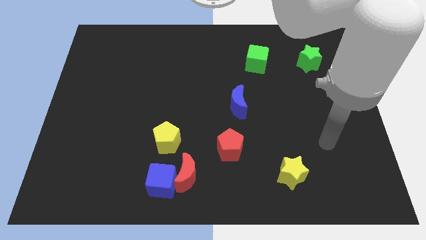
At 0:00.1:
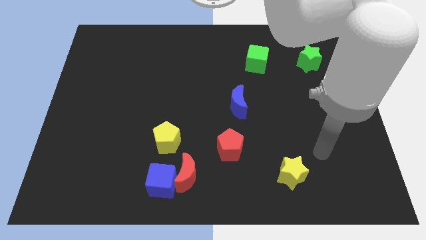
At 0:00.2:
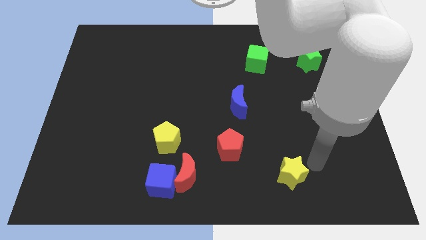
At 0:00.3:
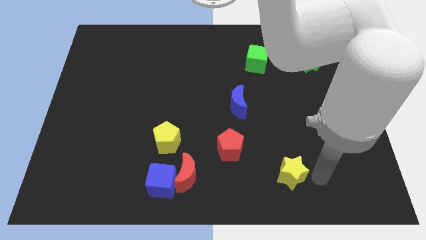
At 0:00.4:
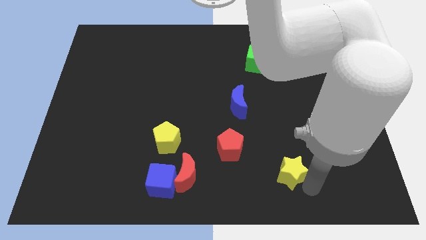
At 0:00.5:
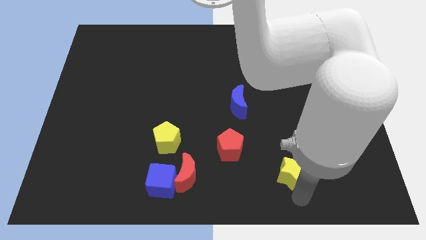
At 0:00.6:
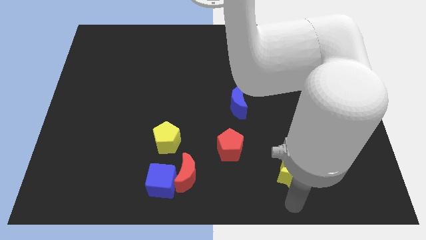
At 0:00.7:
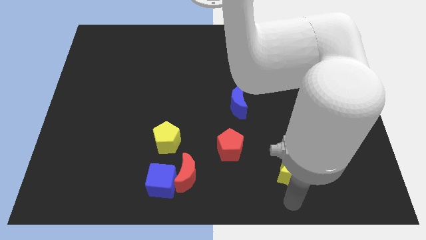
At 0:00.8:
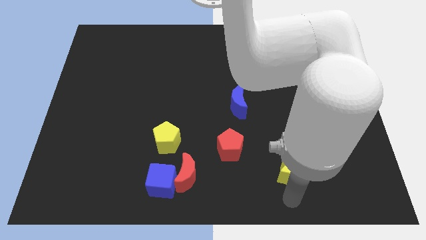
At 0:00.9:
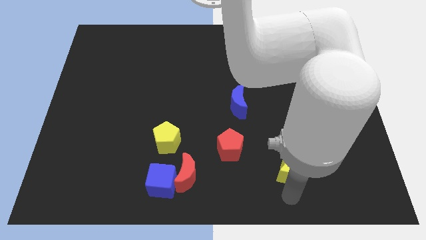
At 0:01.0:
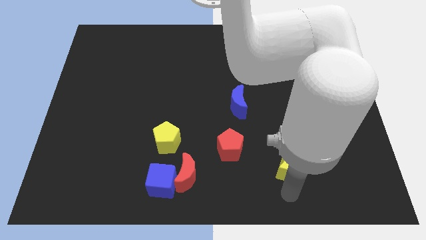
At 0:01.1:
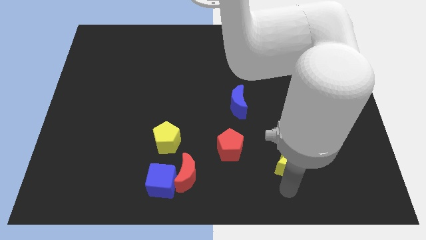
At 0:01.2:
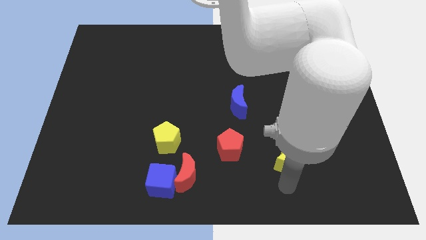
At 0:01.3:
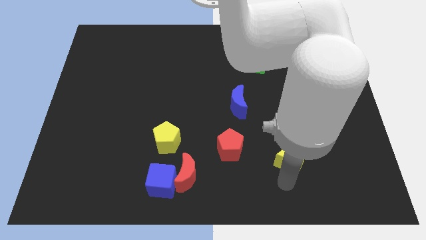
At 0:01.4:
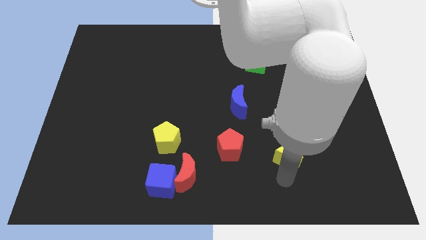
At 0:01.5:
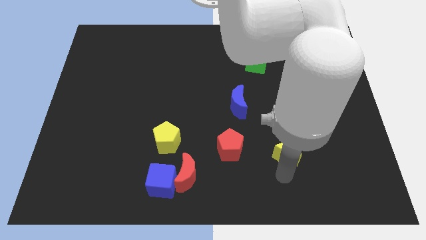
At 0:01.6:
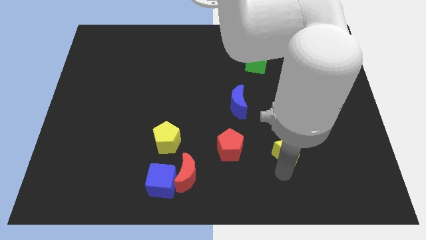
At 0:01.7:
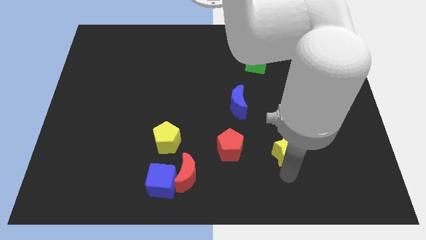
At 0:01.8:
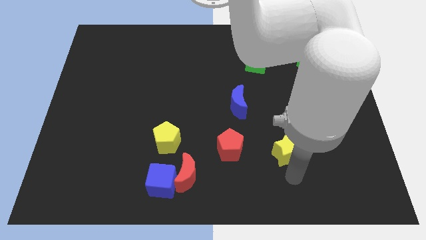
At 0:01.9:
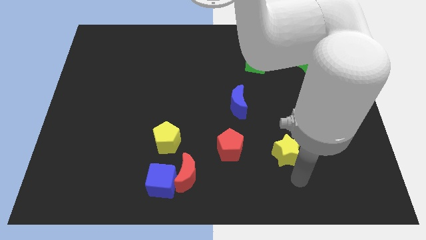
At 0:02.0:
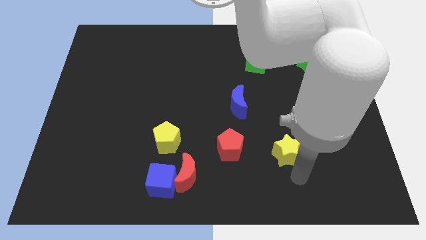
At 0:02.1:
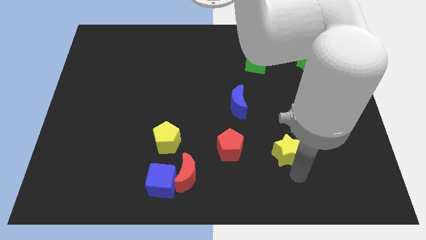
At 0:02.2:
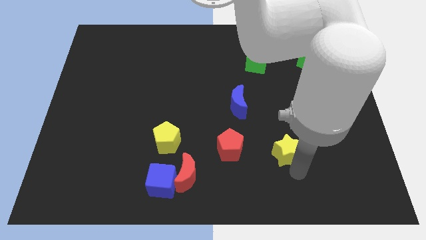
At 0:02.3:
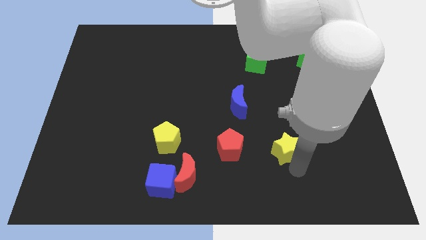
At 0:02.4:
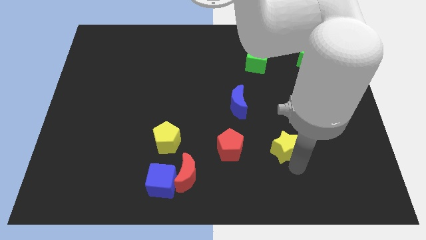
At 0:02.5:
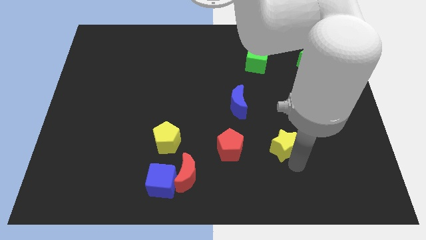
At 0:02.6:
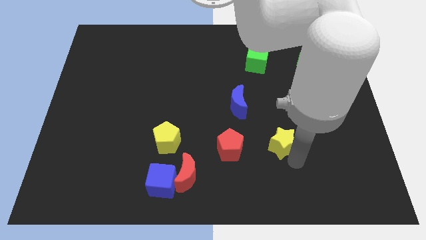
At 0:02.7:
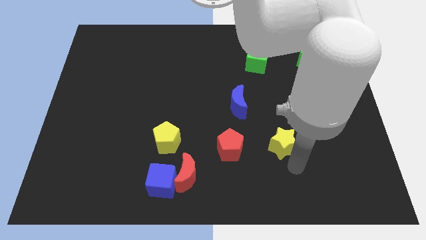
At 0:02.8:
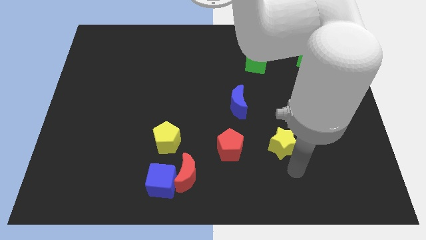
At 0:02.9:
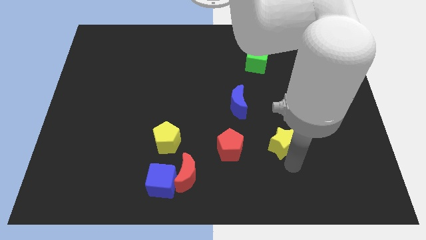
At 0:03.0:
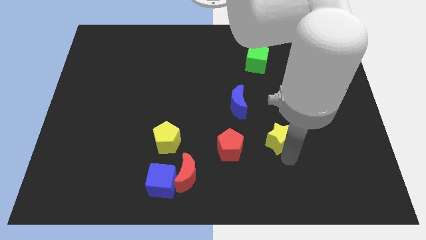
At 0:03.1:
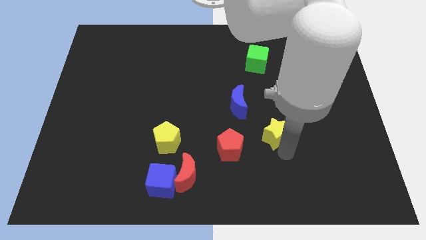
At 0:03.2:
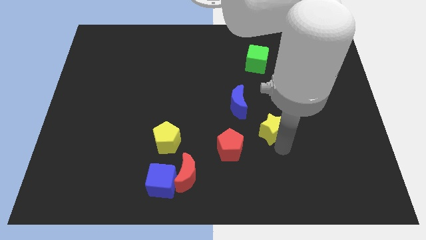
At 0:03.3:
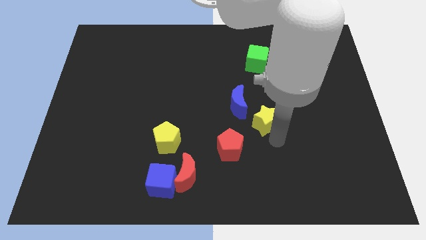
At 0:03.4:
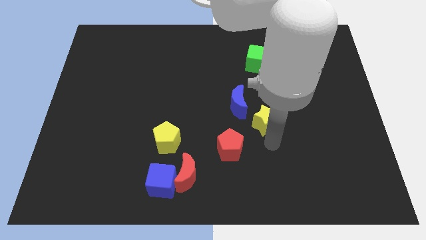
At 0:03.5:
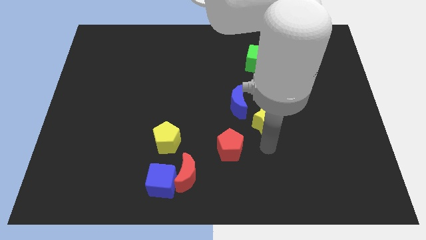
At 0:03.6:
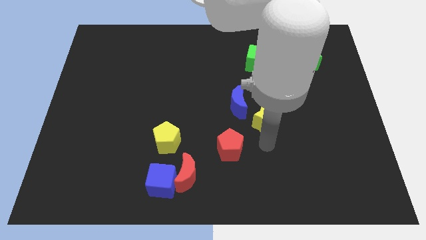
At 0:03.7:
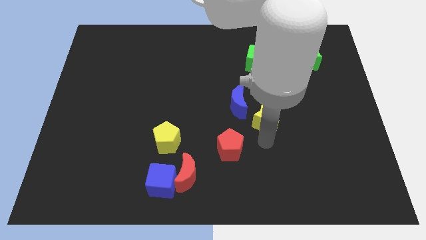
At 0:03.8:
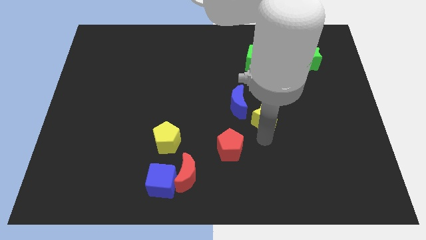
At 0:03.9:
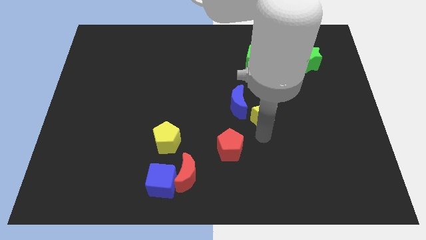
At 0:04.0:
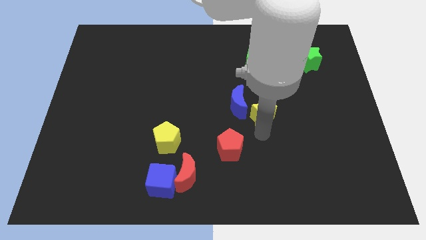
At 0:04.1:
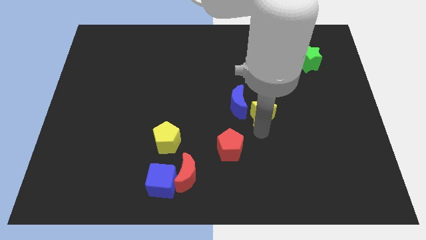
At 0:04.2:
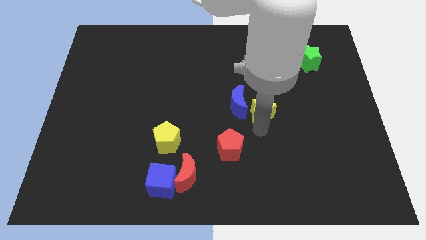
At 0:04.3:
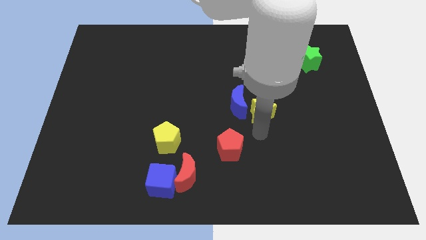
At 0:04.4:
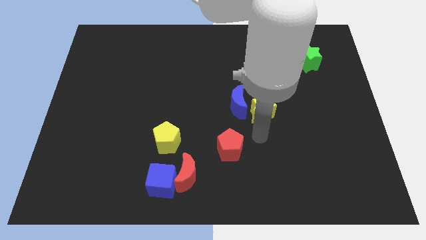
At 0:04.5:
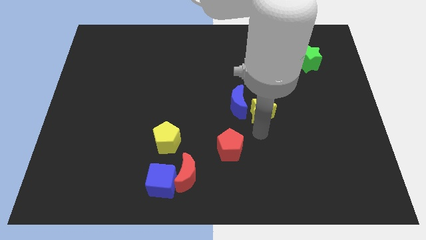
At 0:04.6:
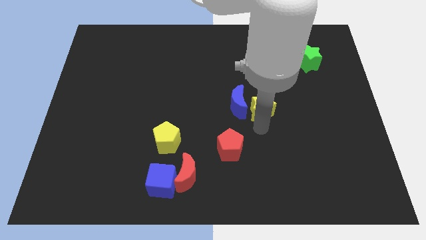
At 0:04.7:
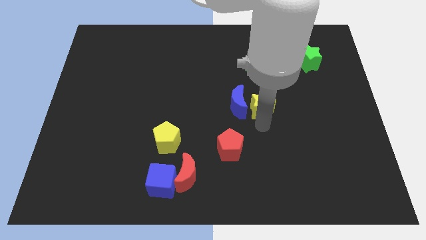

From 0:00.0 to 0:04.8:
move the yellow star to the top right side of the blue moon

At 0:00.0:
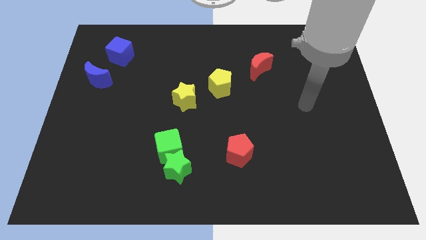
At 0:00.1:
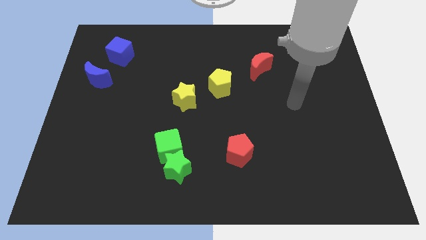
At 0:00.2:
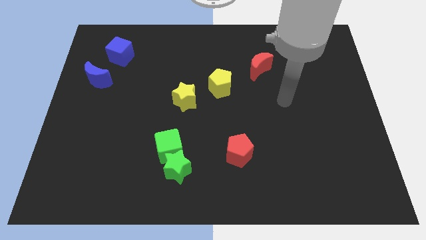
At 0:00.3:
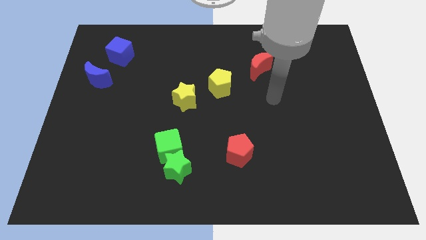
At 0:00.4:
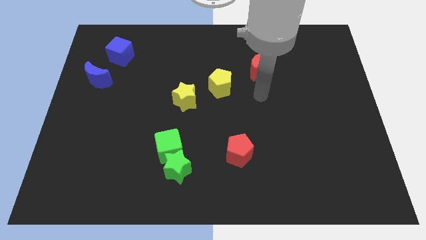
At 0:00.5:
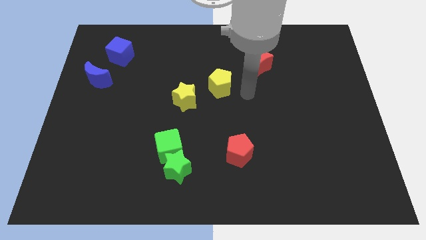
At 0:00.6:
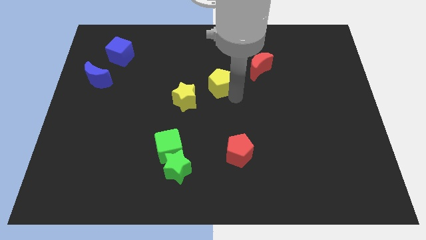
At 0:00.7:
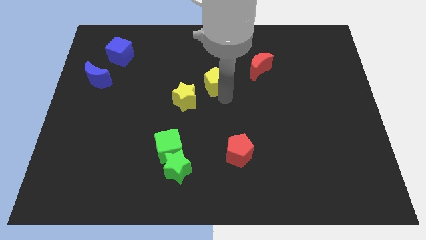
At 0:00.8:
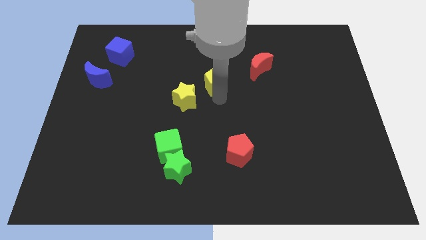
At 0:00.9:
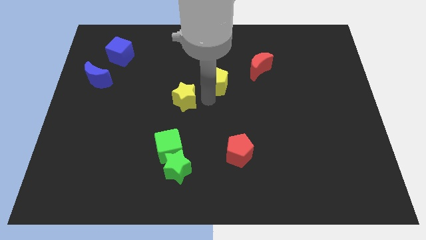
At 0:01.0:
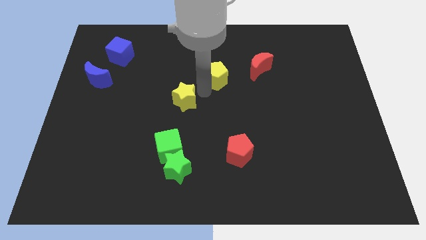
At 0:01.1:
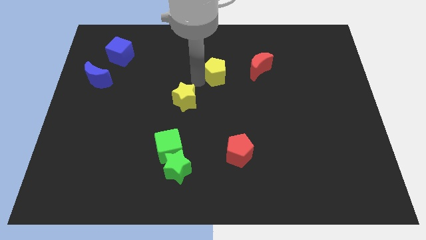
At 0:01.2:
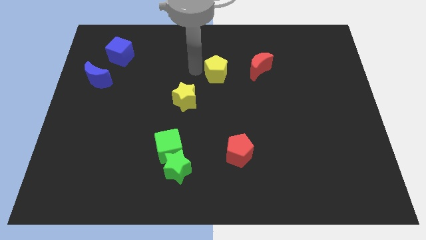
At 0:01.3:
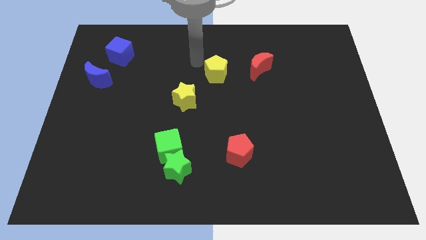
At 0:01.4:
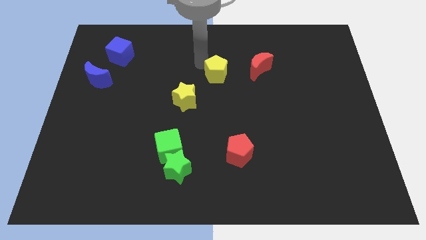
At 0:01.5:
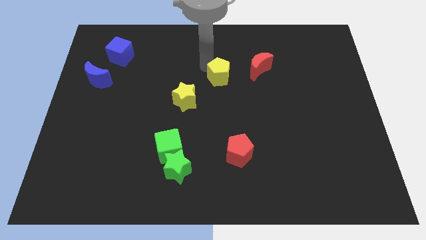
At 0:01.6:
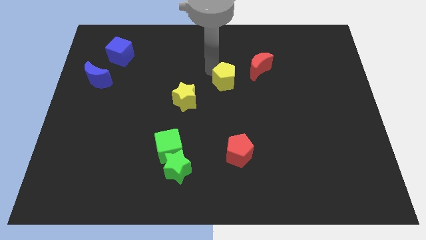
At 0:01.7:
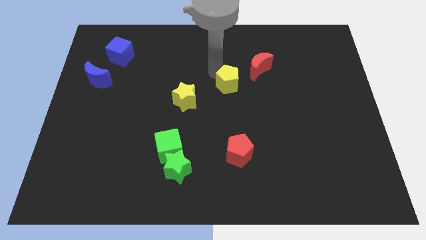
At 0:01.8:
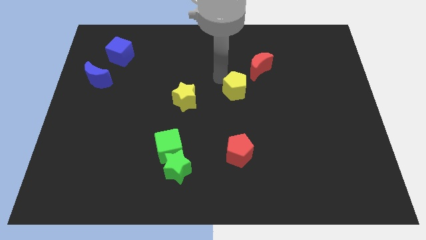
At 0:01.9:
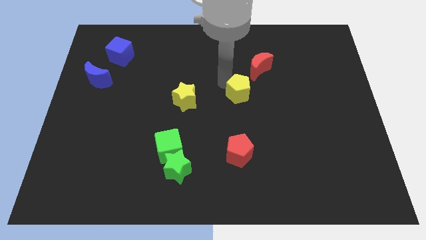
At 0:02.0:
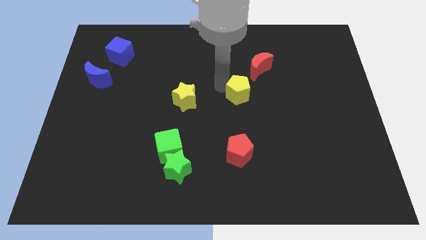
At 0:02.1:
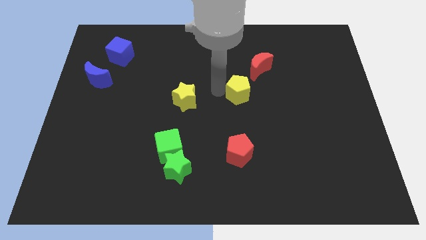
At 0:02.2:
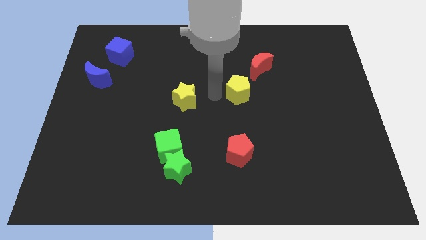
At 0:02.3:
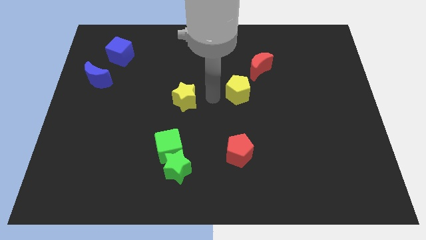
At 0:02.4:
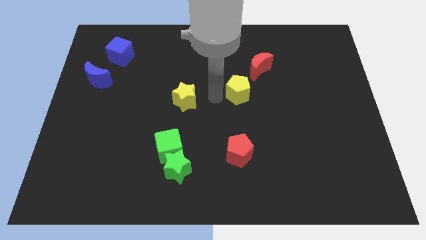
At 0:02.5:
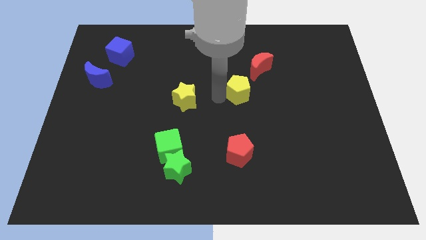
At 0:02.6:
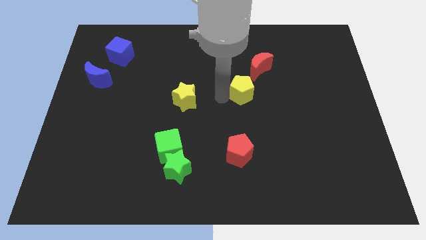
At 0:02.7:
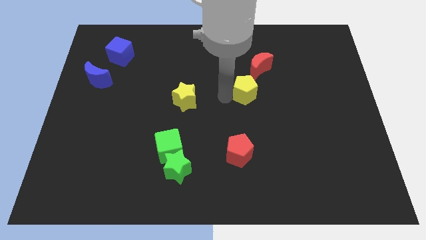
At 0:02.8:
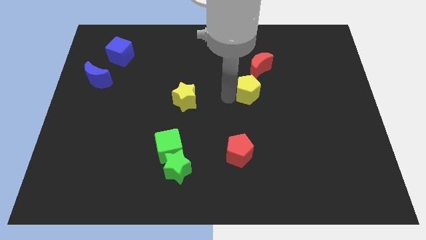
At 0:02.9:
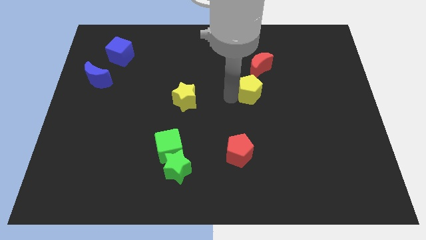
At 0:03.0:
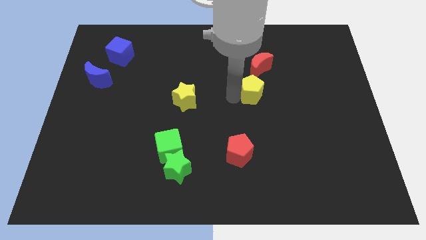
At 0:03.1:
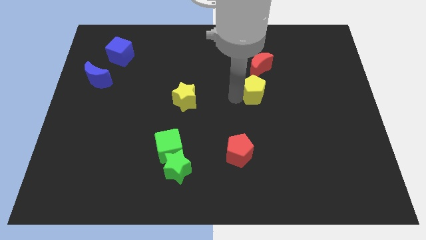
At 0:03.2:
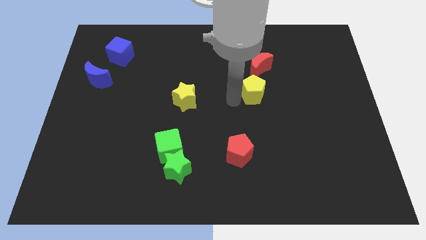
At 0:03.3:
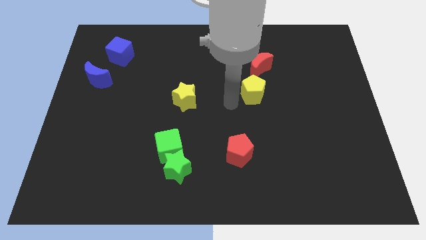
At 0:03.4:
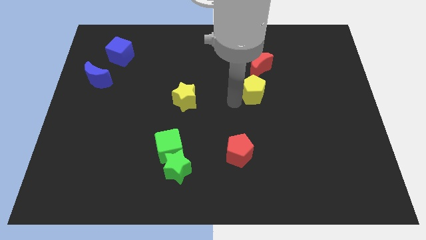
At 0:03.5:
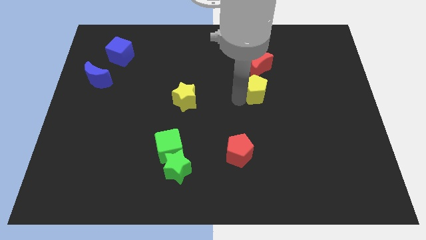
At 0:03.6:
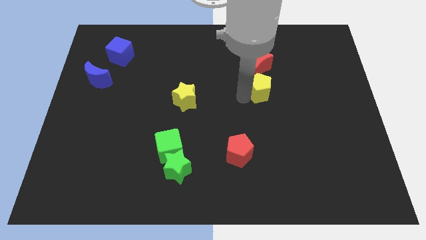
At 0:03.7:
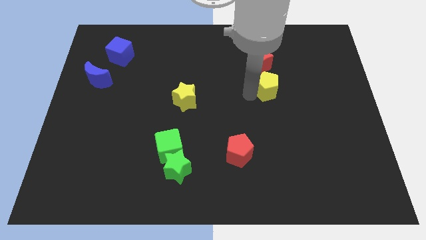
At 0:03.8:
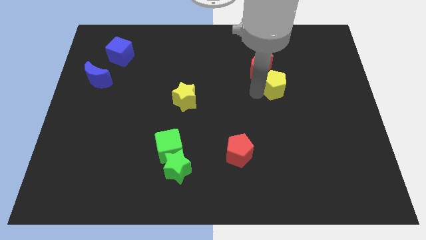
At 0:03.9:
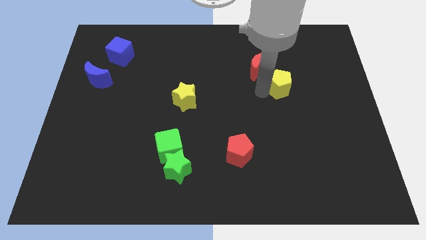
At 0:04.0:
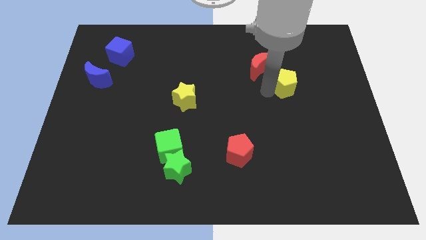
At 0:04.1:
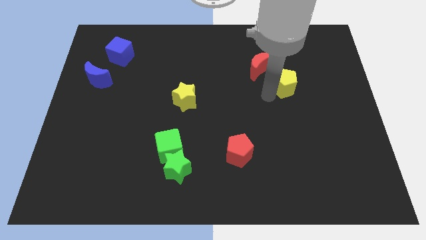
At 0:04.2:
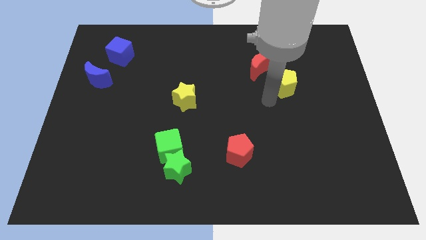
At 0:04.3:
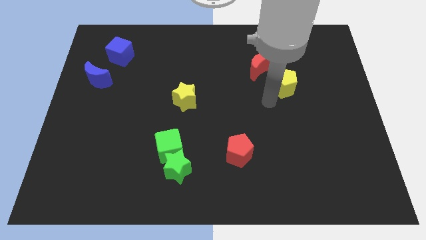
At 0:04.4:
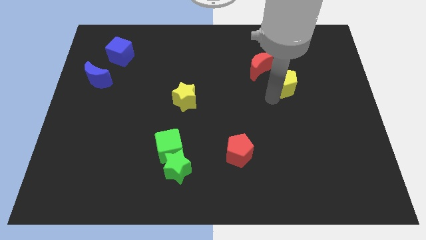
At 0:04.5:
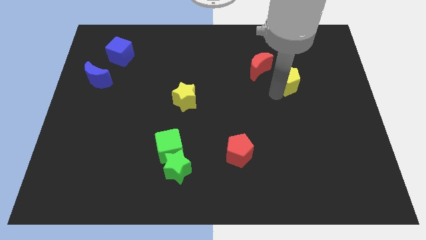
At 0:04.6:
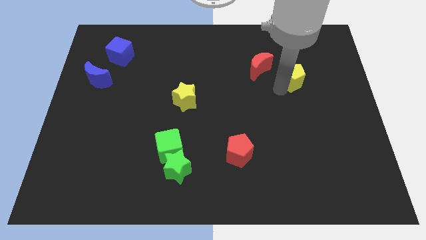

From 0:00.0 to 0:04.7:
put the yellow pentagon just right of the red moon
